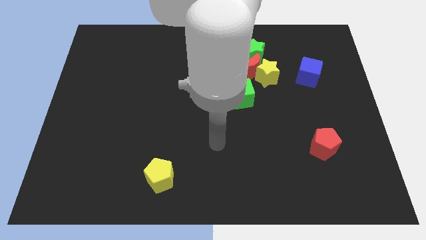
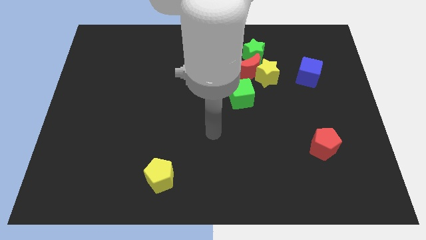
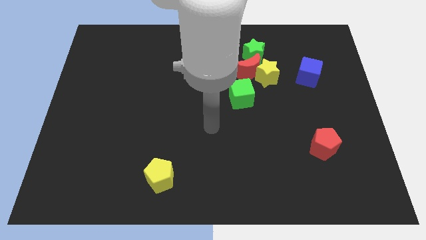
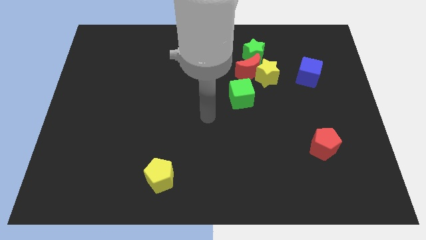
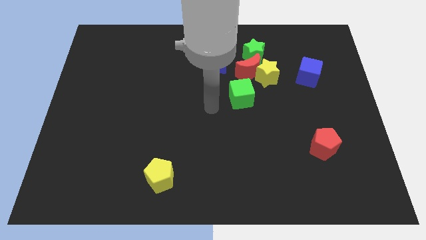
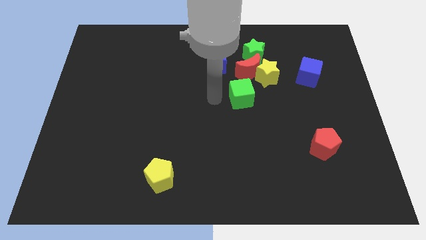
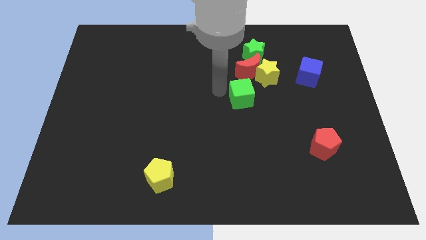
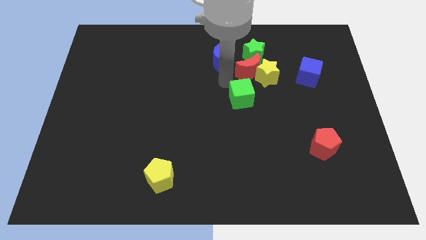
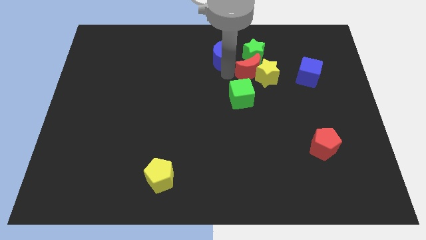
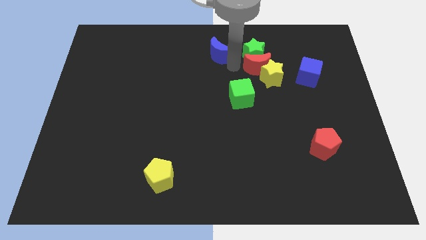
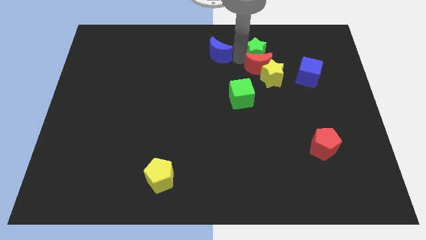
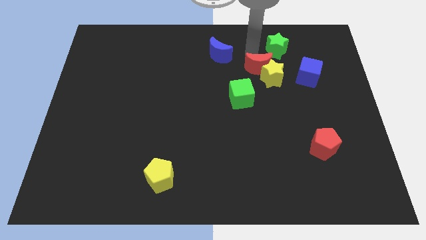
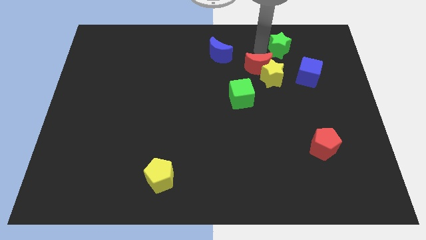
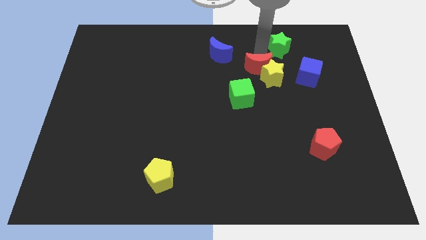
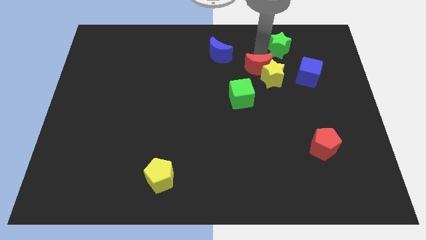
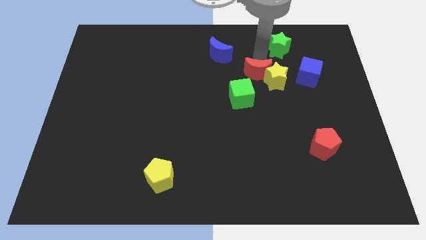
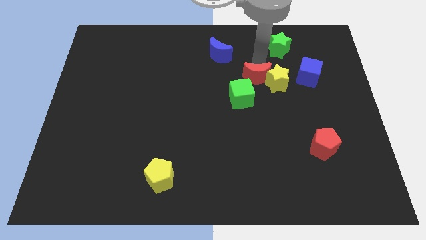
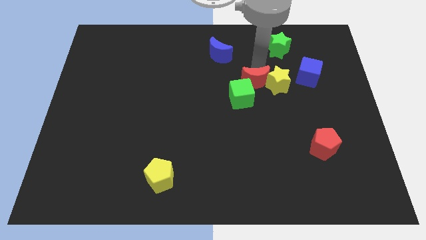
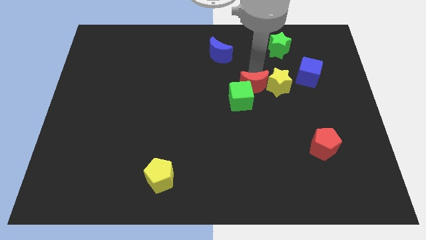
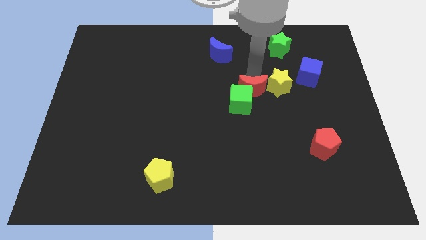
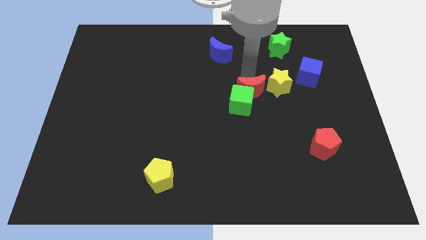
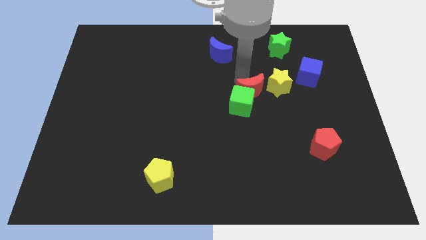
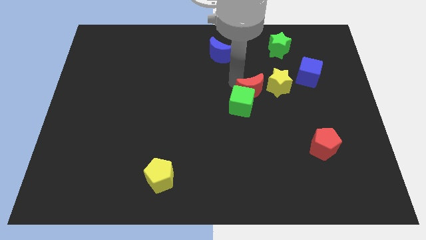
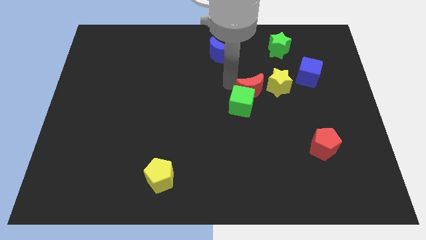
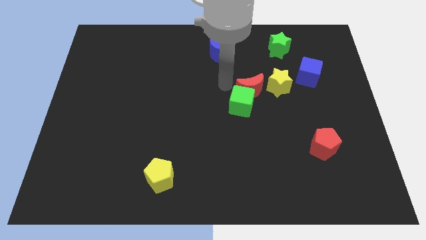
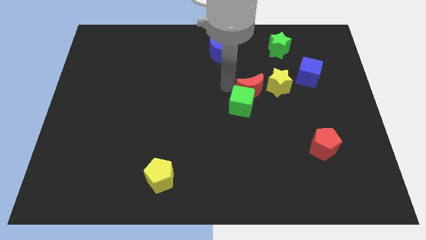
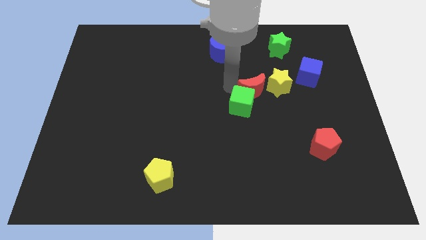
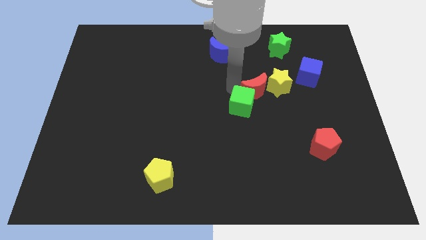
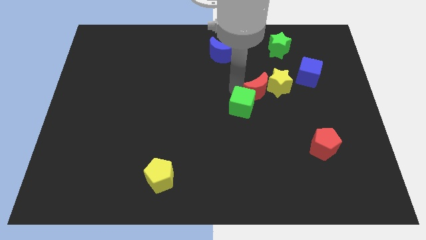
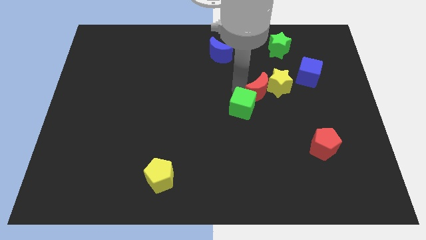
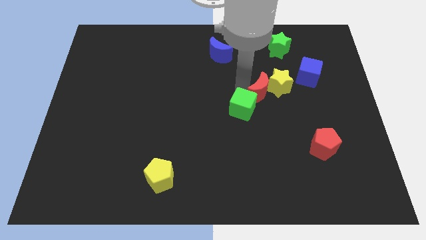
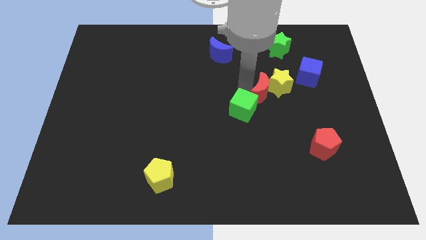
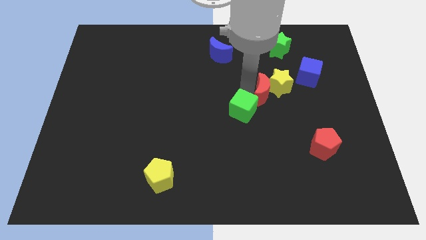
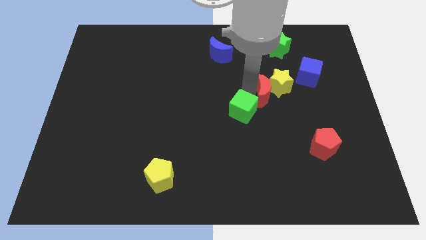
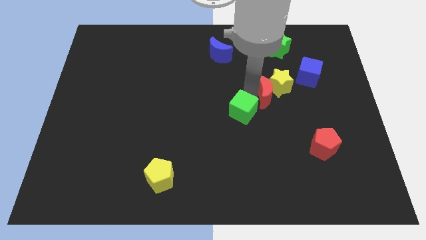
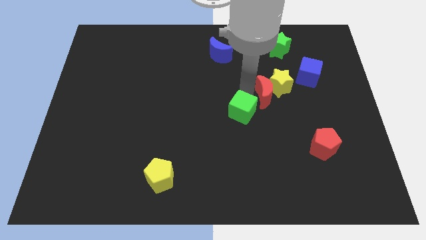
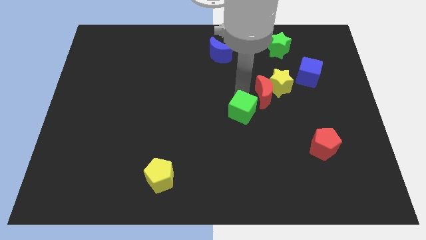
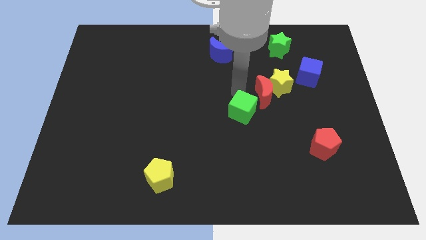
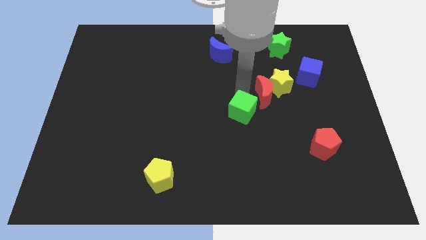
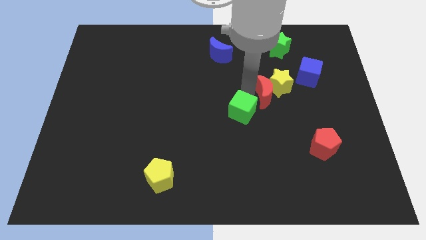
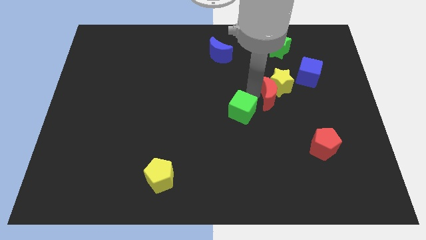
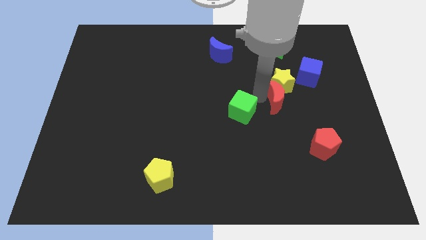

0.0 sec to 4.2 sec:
separate the red moon from the group

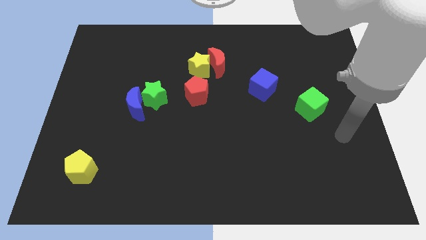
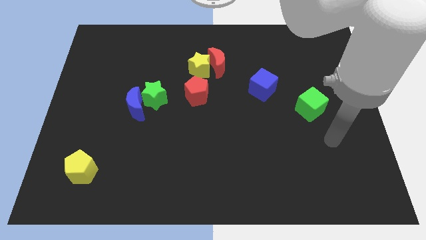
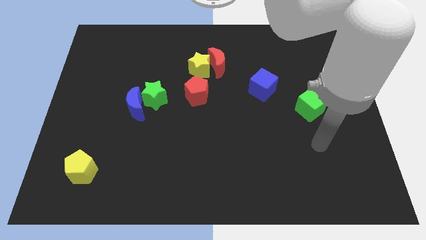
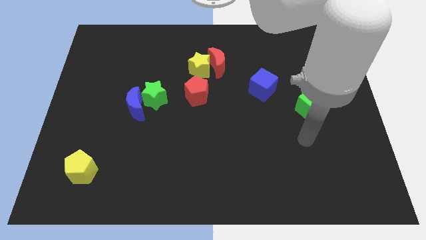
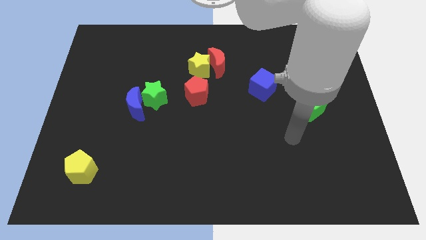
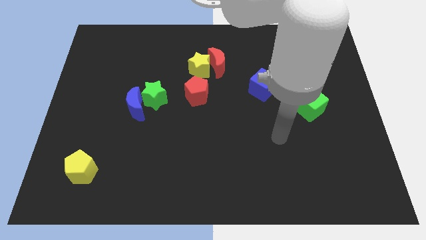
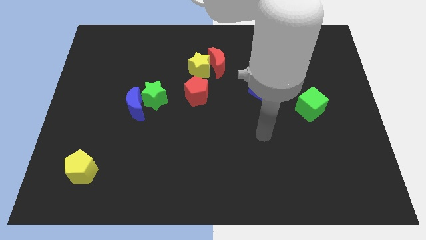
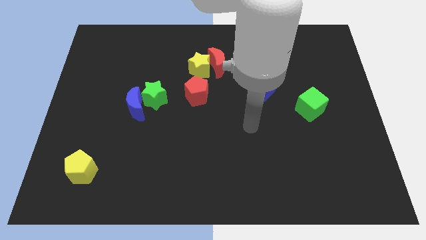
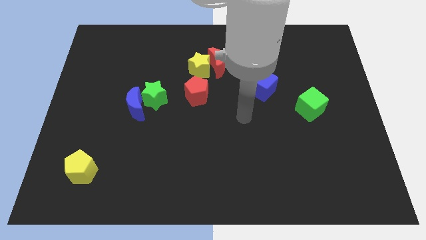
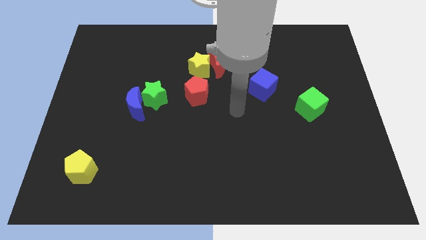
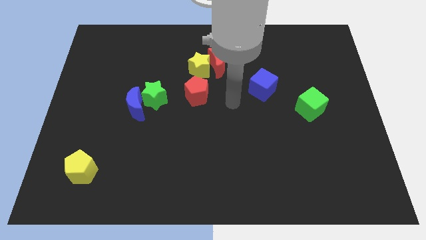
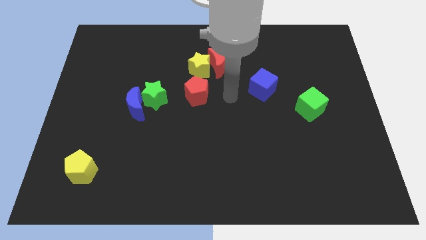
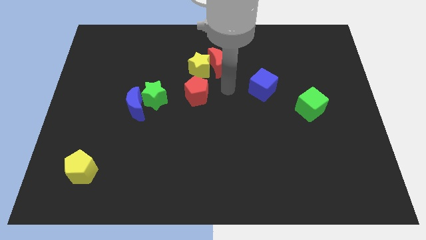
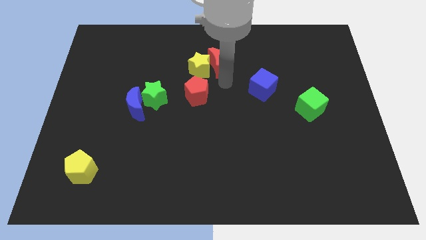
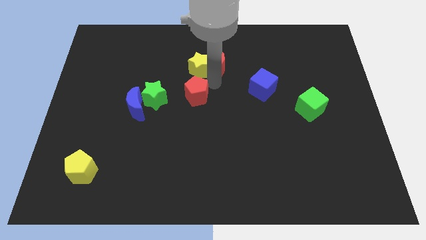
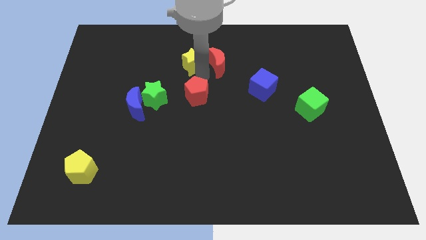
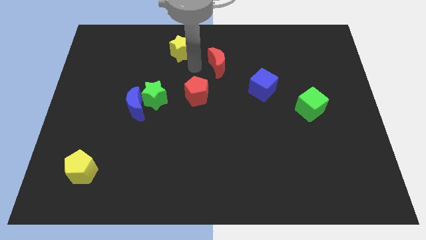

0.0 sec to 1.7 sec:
pull the red moon apart from the yellow star

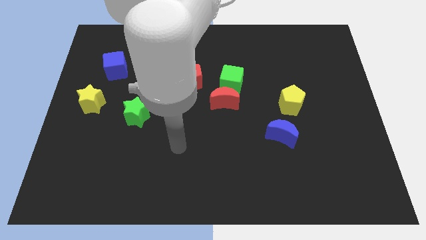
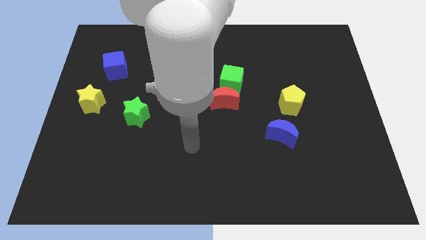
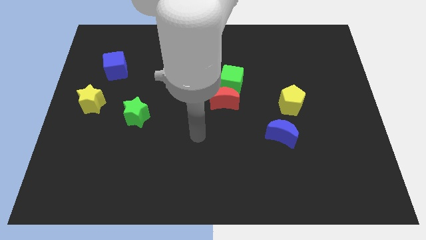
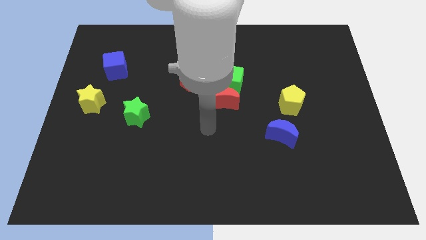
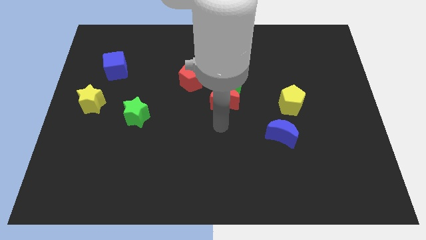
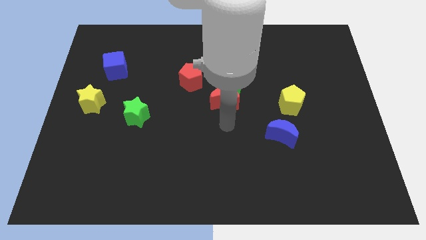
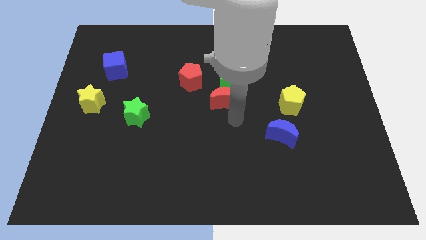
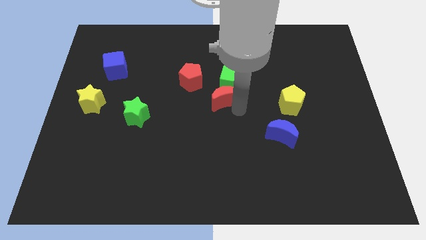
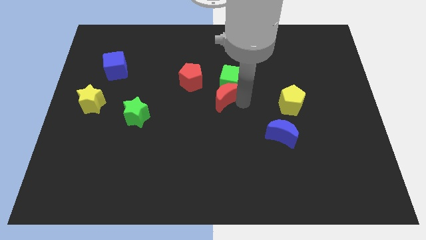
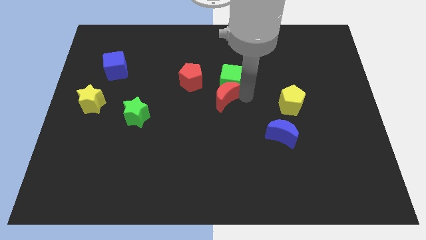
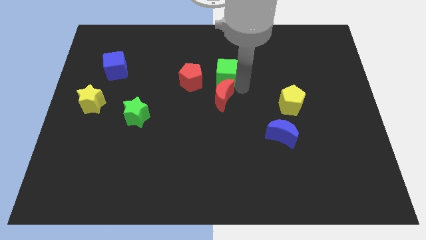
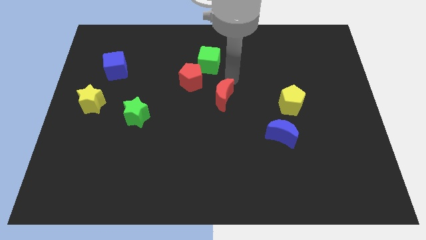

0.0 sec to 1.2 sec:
separate the red moon from the green cube

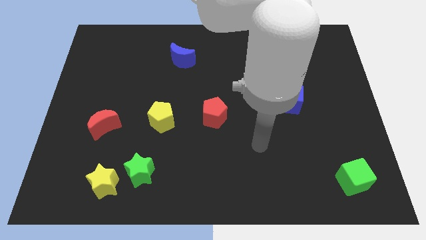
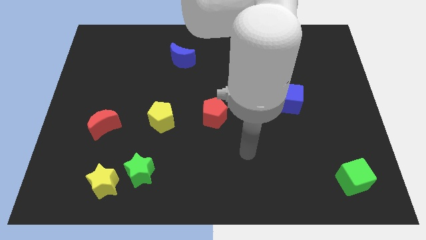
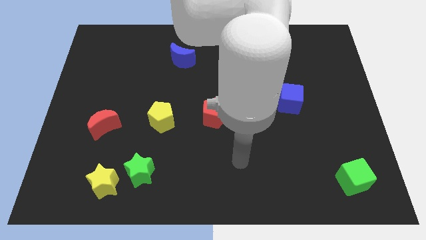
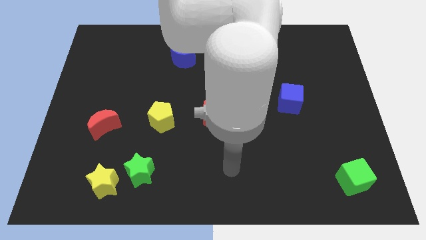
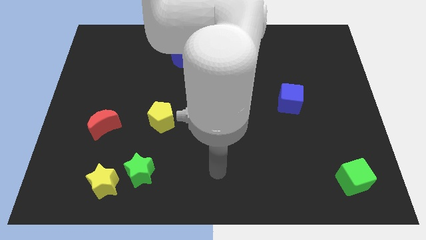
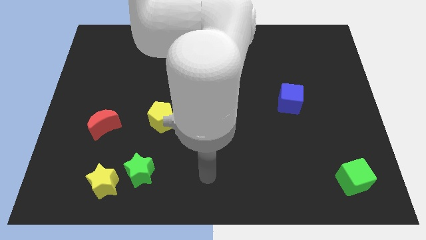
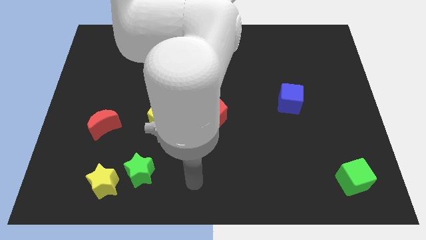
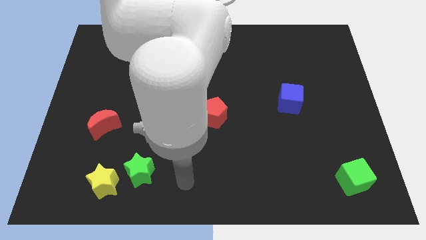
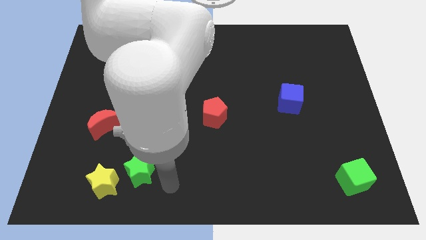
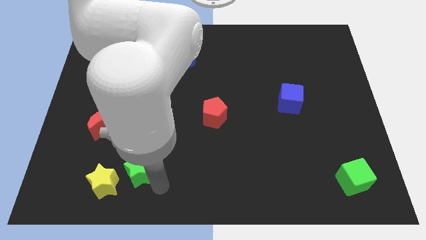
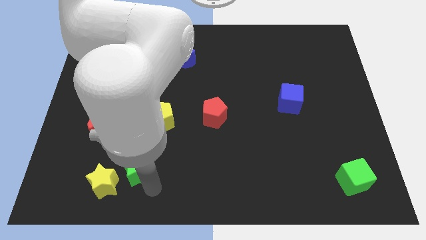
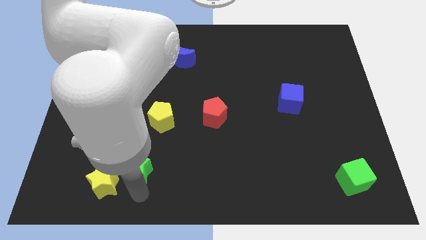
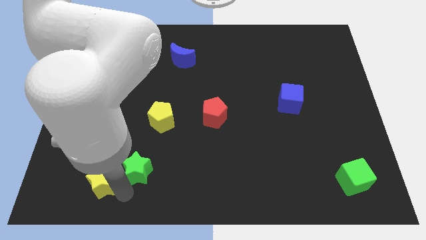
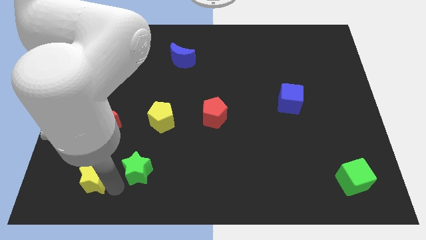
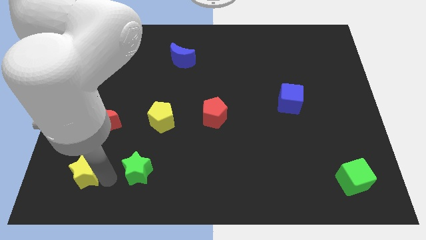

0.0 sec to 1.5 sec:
separate the green star from the yellow star

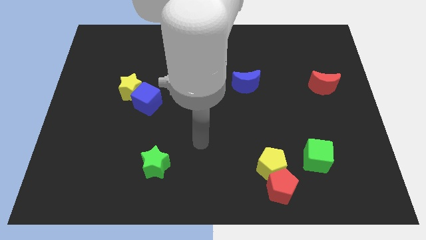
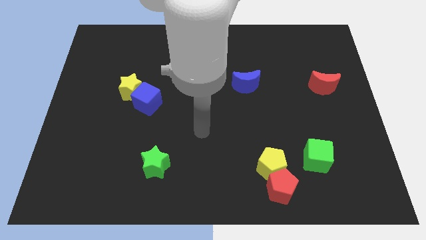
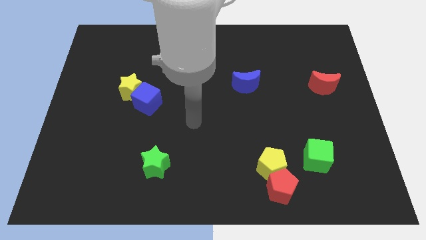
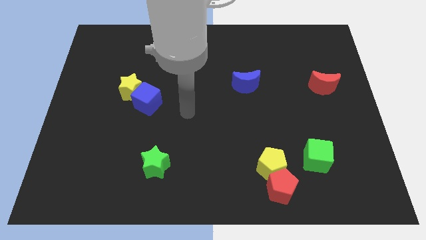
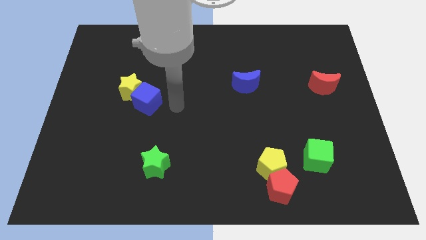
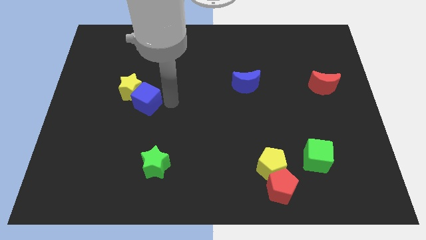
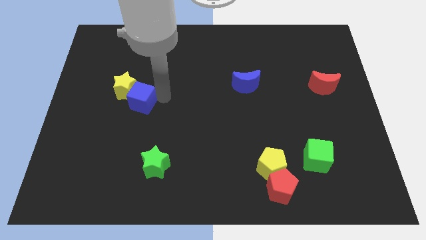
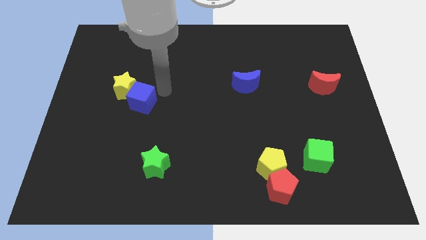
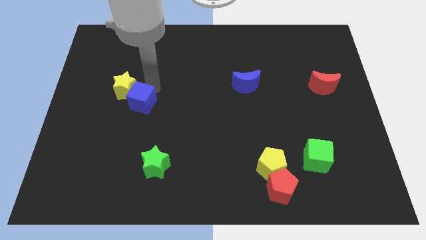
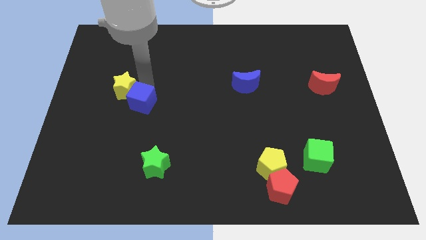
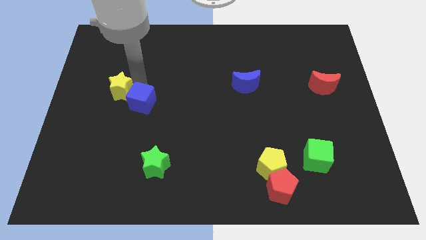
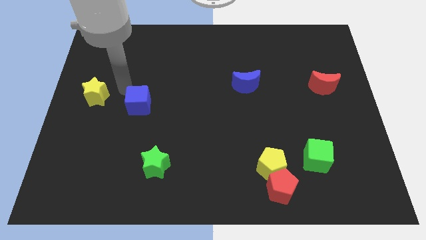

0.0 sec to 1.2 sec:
pull the blue cube apart from the yellow star
